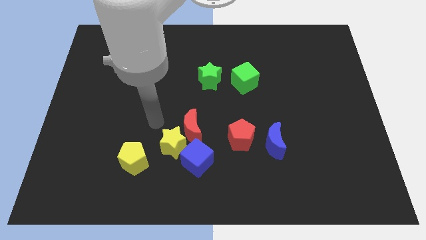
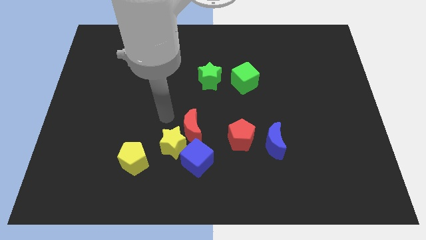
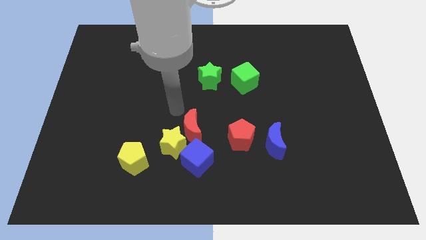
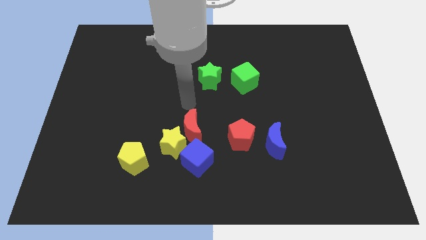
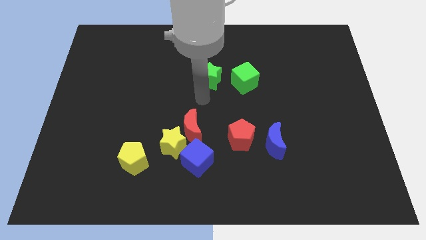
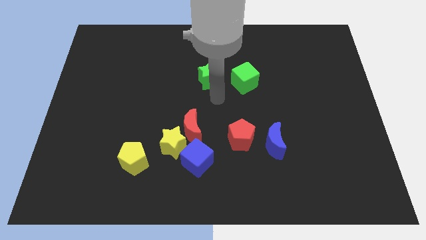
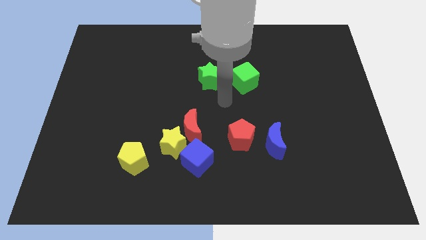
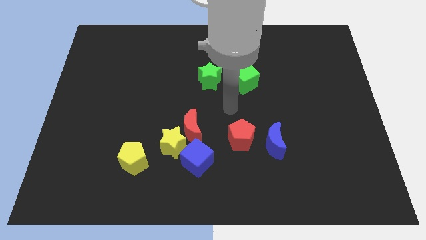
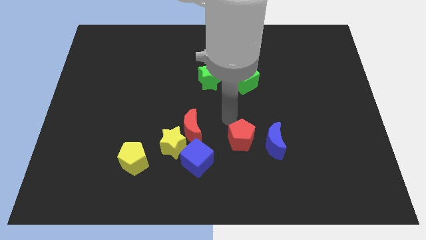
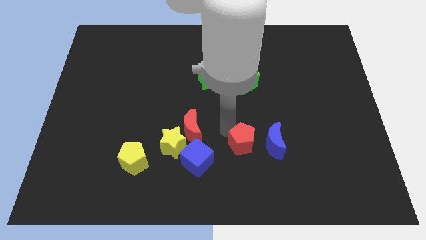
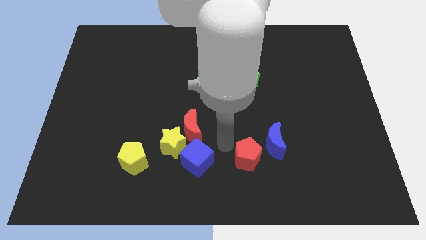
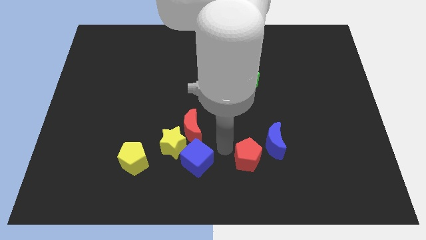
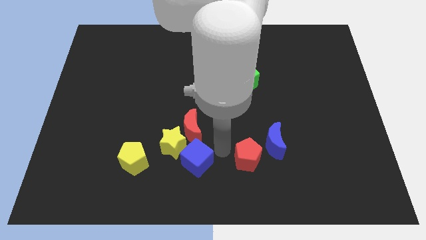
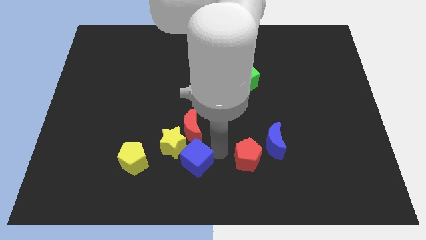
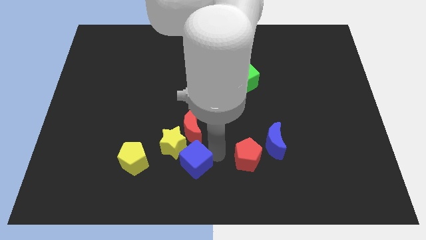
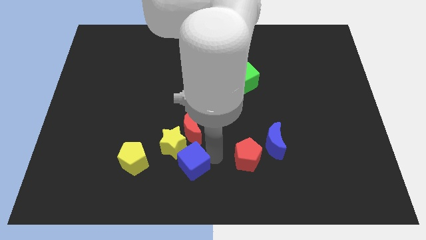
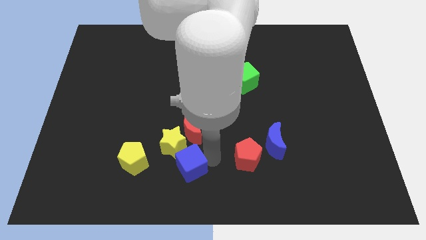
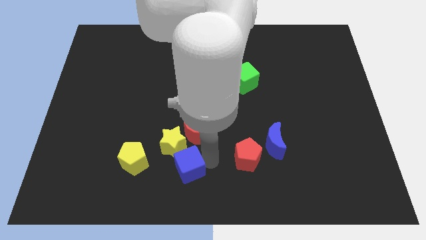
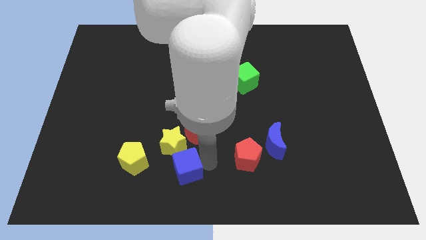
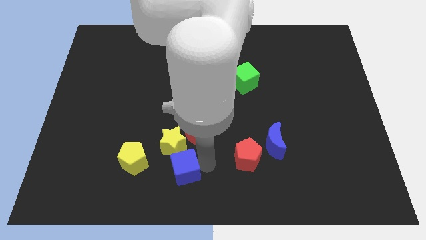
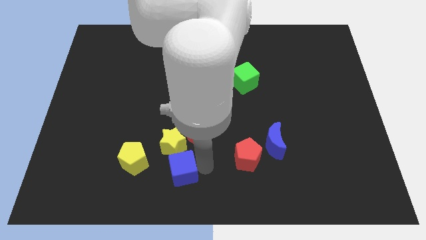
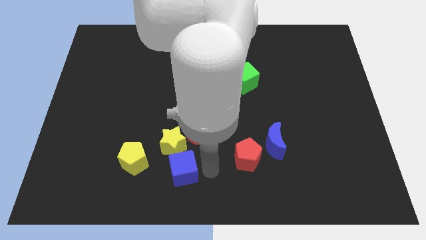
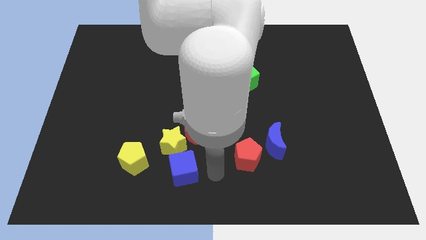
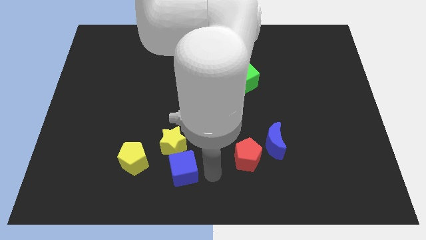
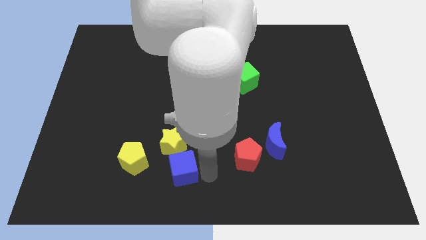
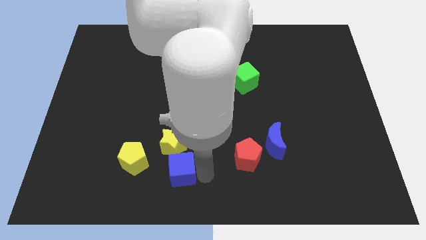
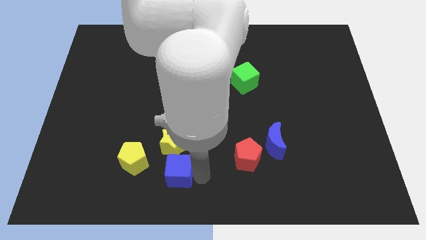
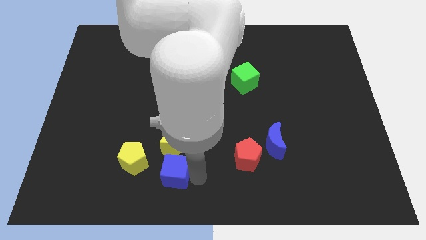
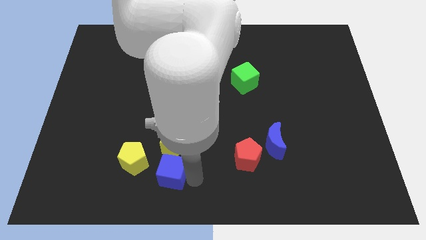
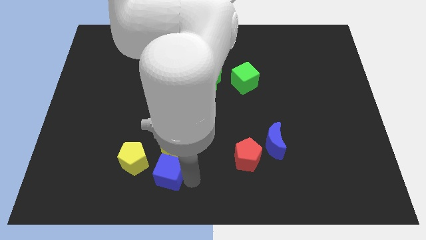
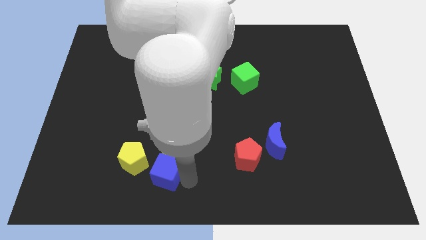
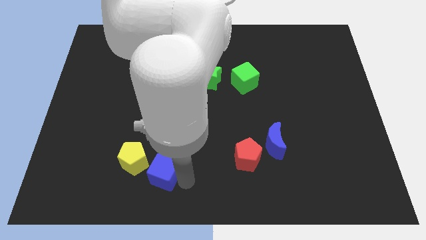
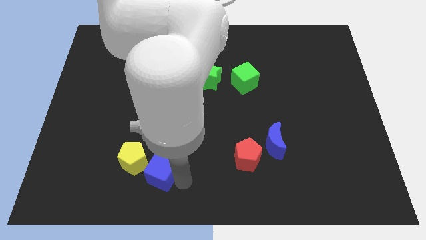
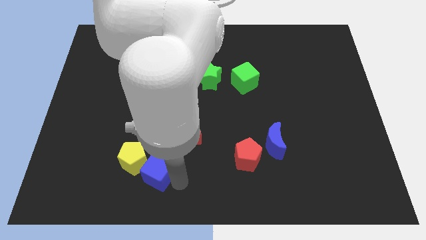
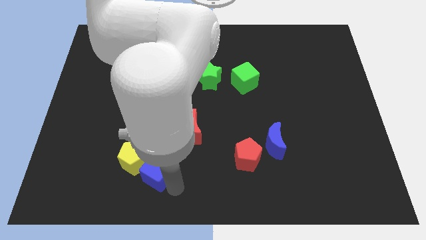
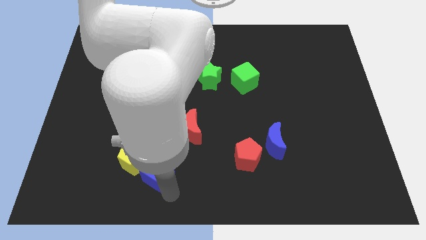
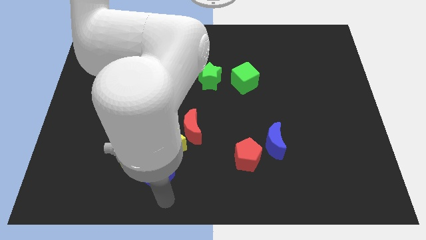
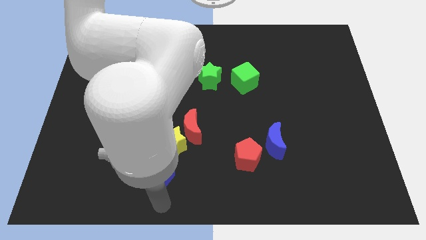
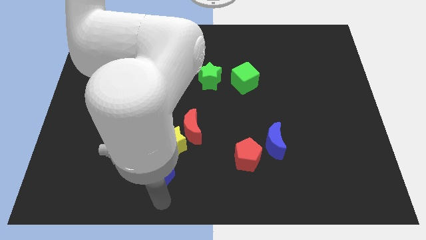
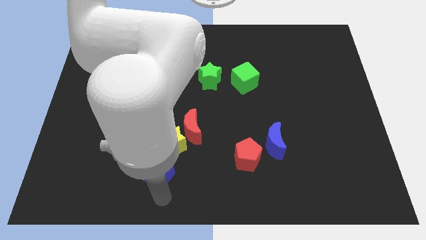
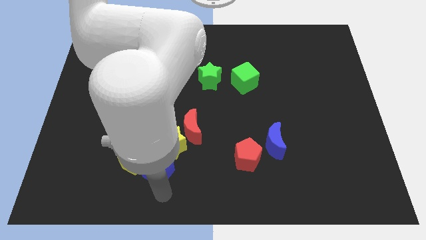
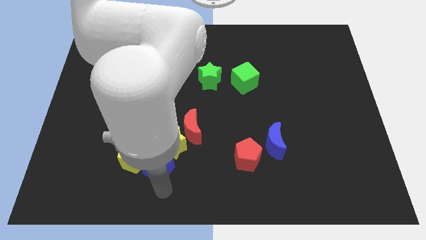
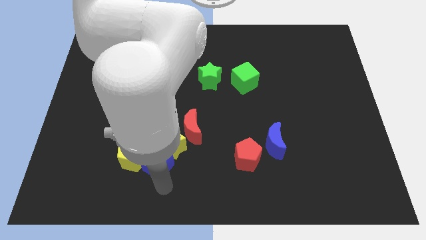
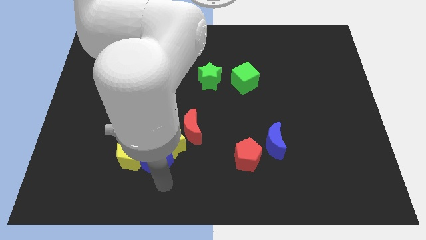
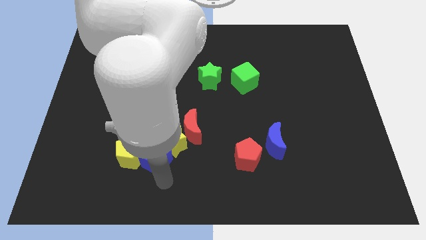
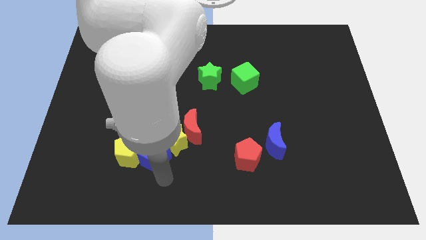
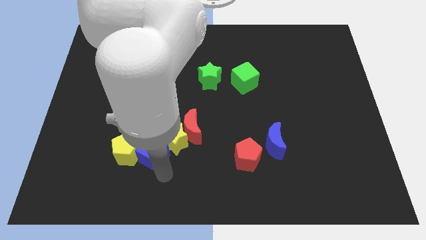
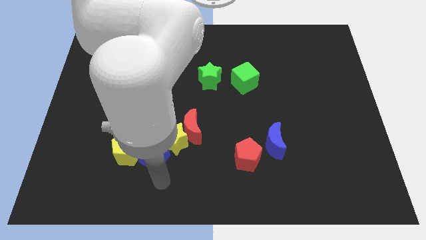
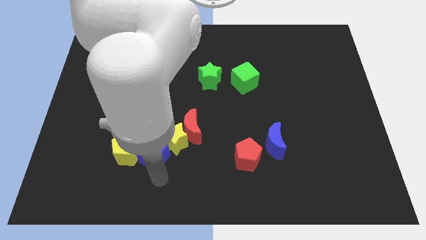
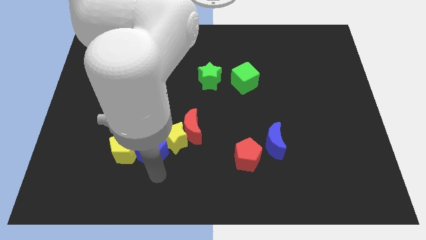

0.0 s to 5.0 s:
push the blue cube a bit up and to the left diagonally

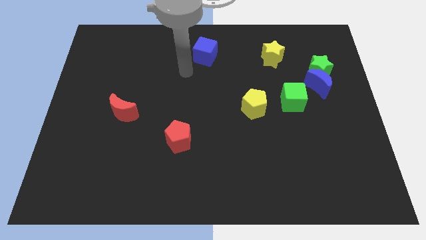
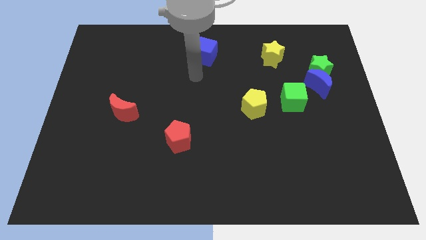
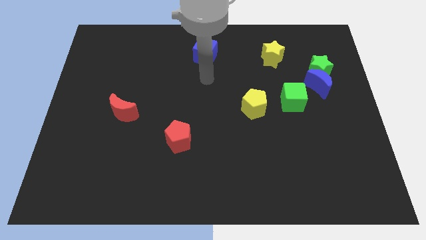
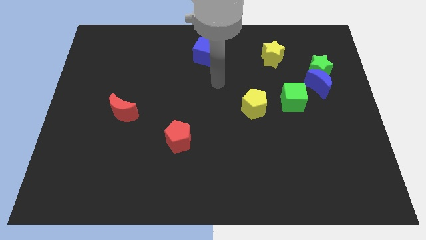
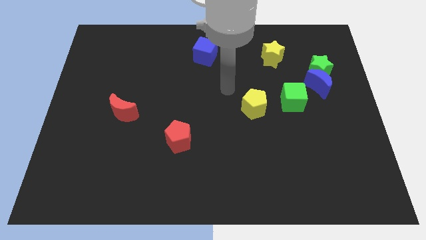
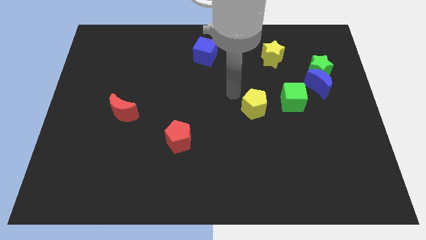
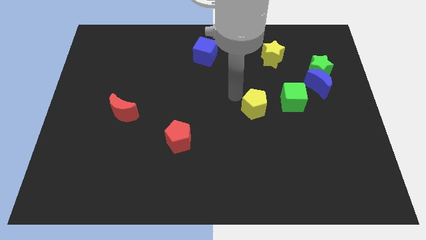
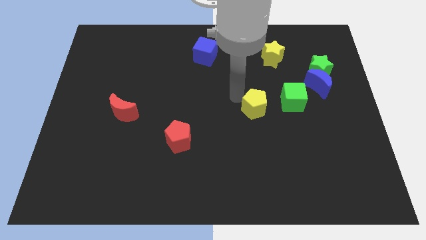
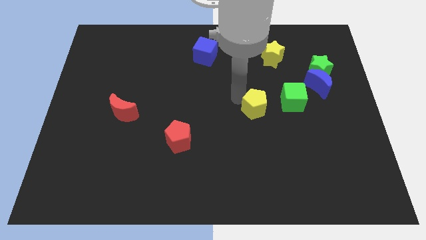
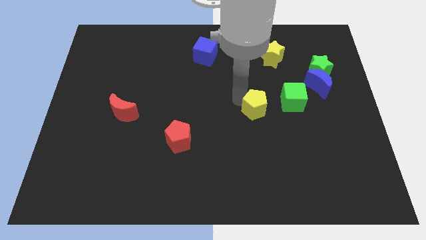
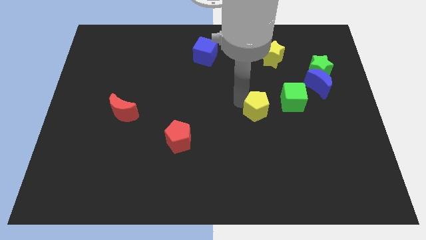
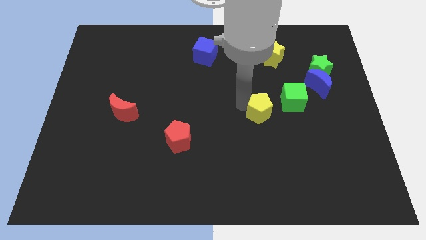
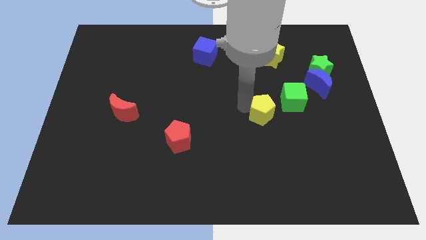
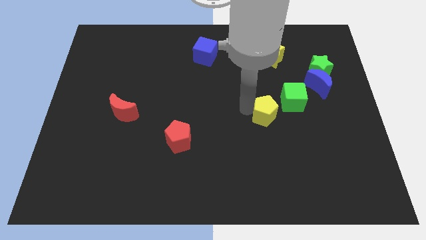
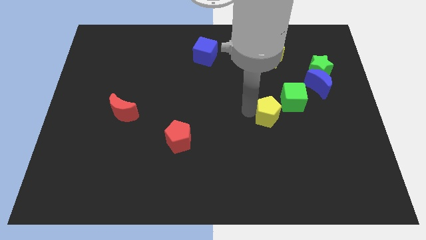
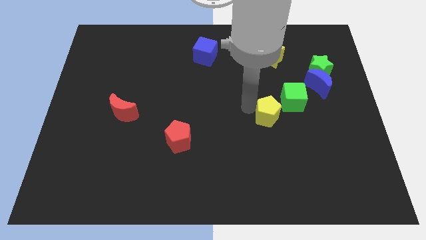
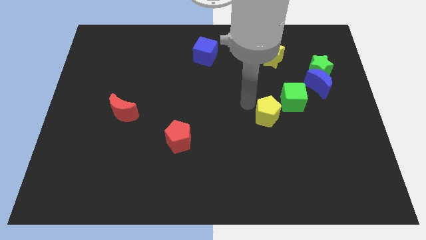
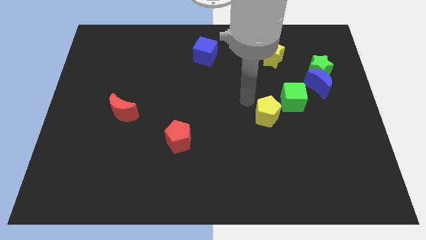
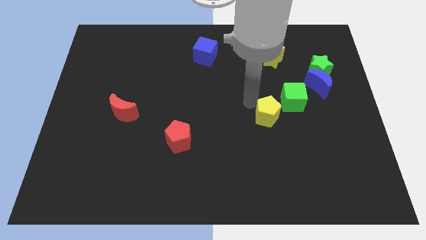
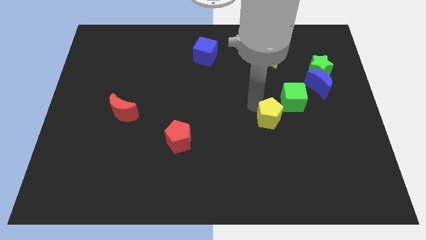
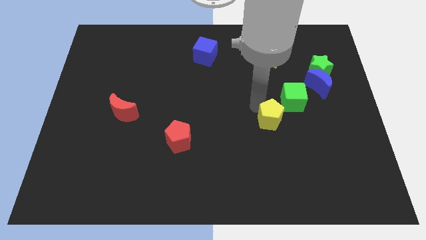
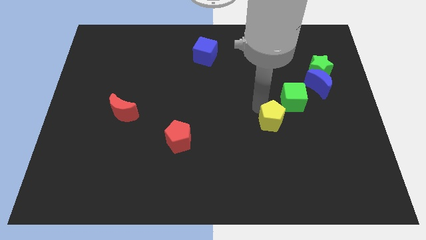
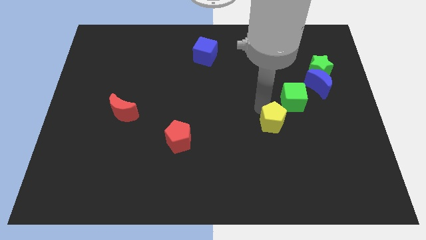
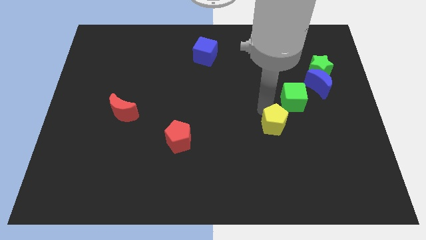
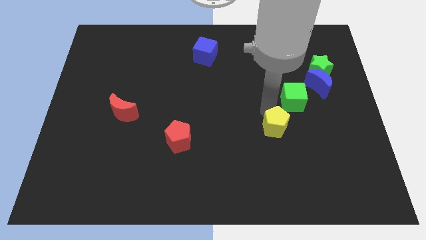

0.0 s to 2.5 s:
slightly slide the yellow pentagon downwards and right diagonally
